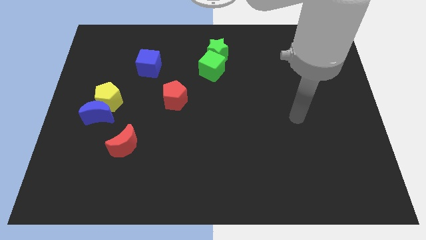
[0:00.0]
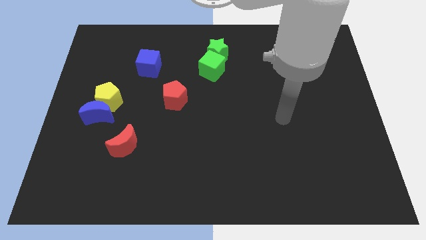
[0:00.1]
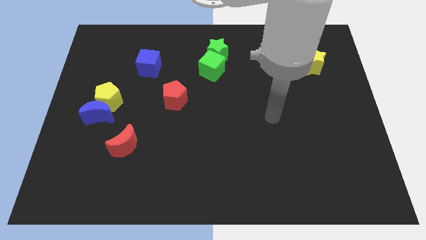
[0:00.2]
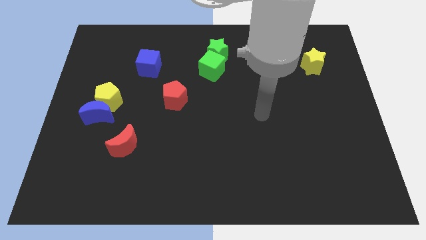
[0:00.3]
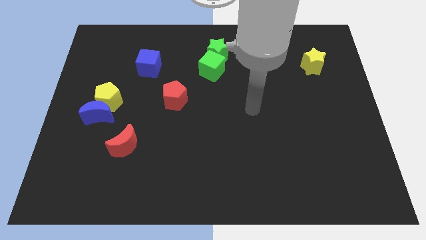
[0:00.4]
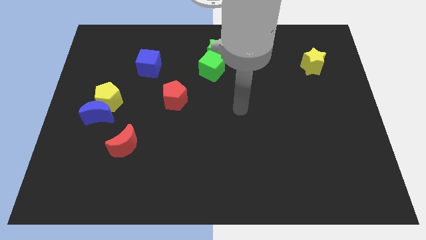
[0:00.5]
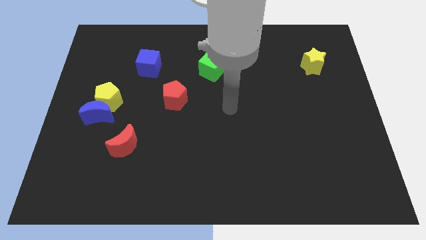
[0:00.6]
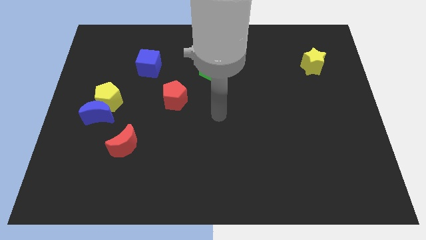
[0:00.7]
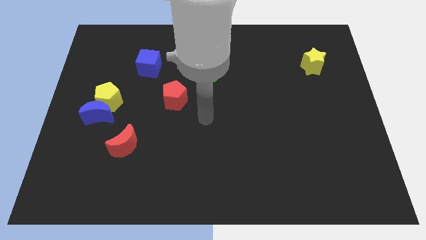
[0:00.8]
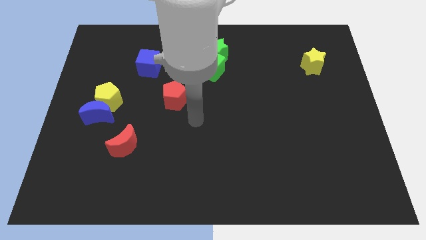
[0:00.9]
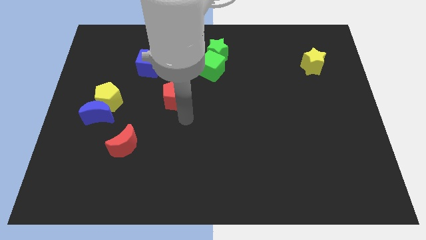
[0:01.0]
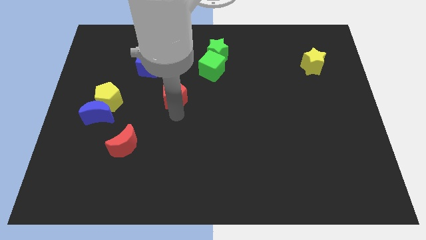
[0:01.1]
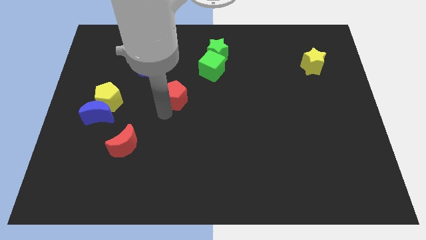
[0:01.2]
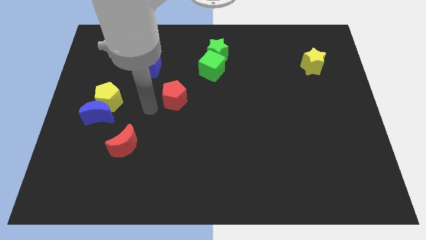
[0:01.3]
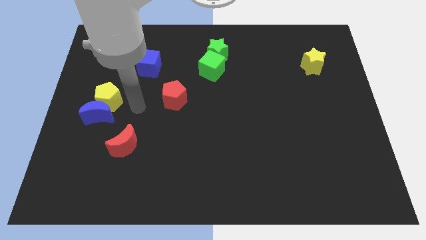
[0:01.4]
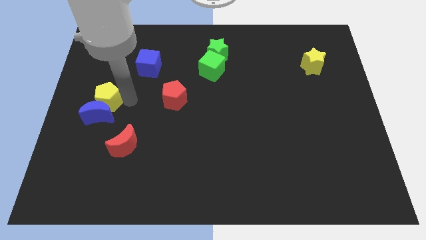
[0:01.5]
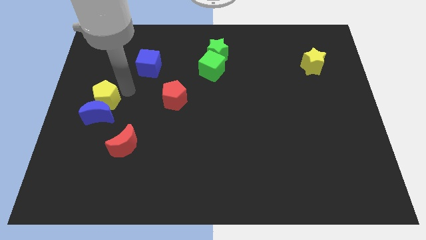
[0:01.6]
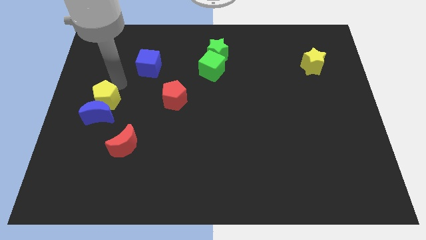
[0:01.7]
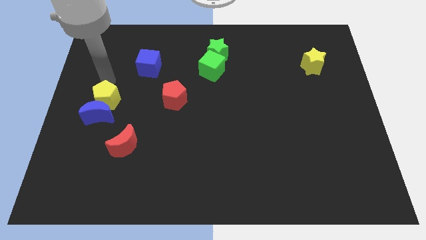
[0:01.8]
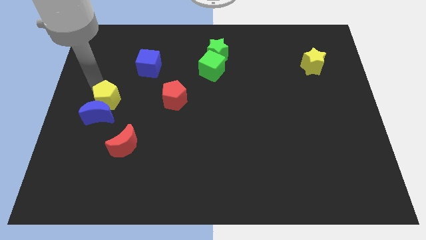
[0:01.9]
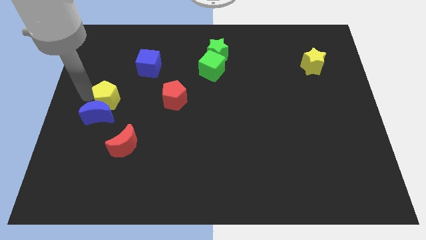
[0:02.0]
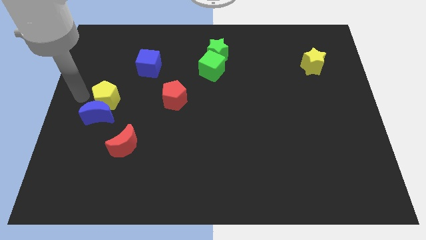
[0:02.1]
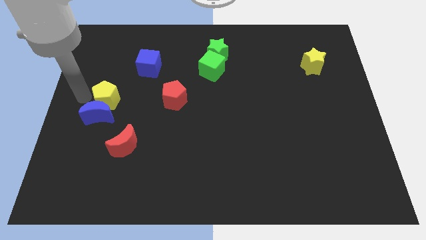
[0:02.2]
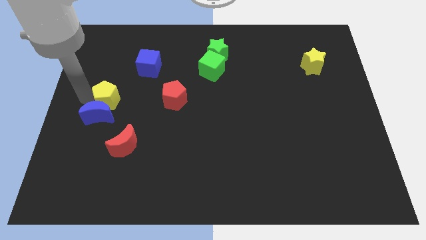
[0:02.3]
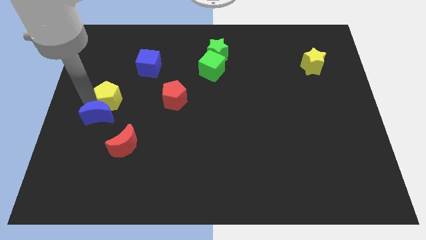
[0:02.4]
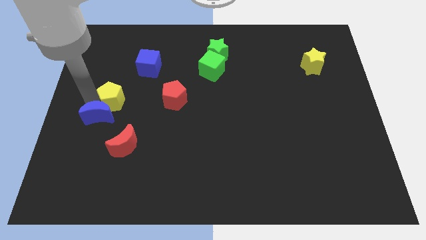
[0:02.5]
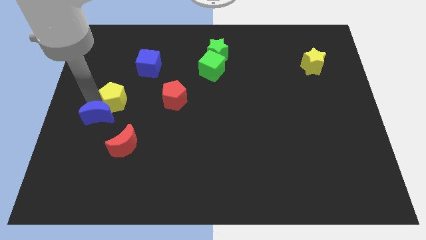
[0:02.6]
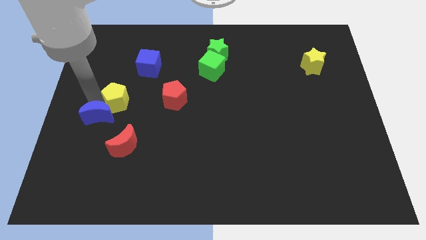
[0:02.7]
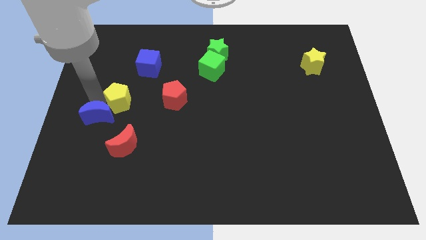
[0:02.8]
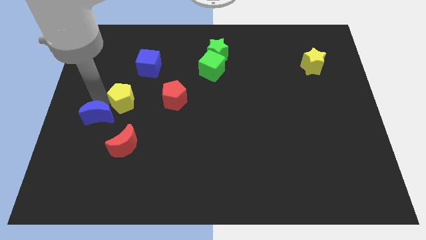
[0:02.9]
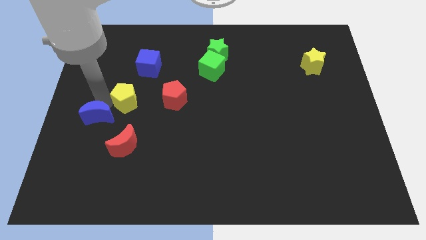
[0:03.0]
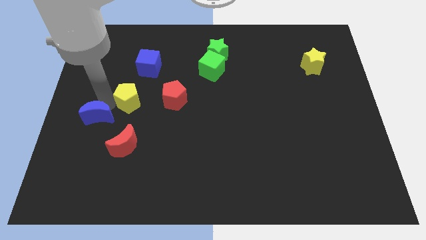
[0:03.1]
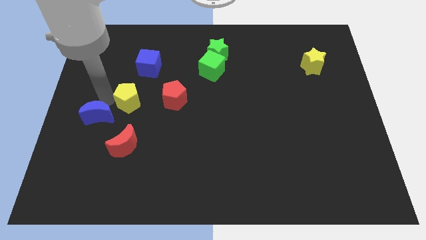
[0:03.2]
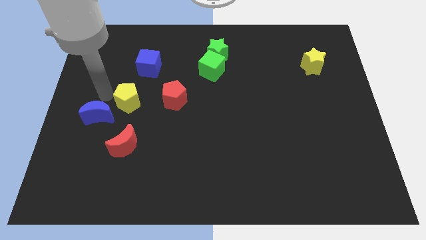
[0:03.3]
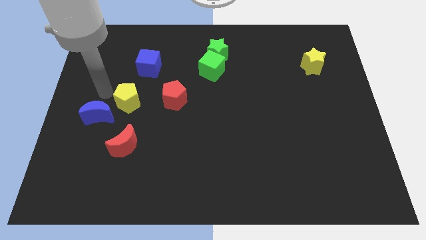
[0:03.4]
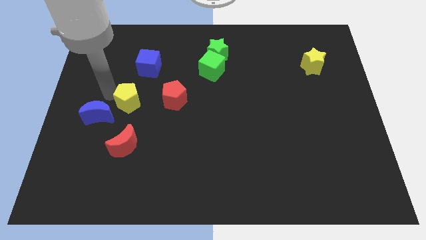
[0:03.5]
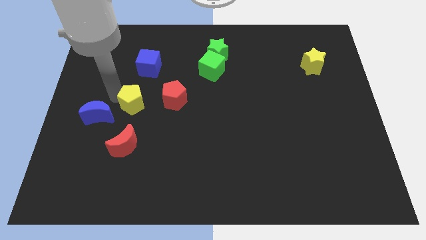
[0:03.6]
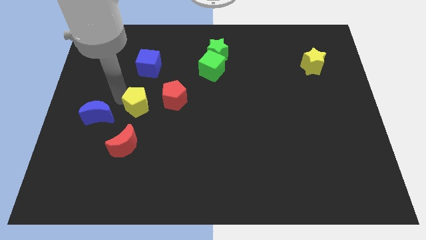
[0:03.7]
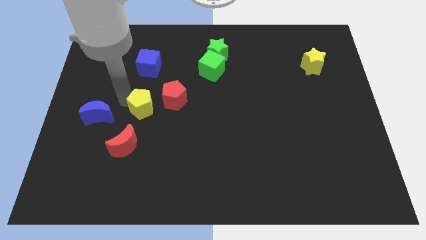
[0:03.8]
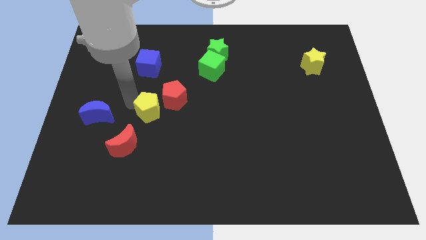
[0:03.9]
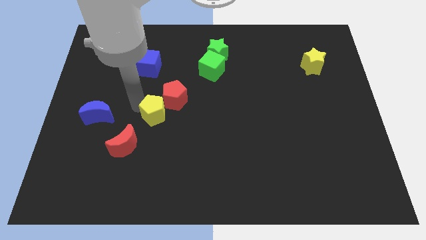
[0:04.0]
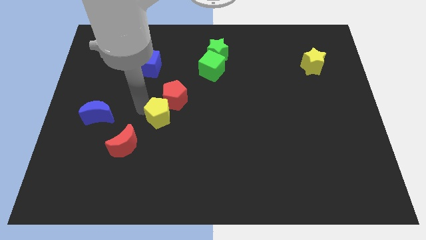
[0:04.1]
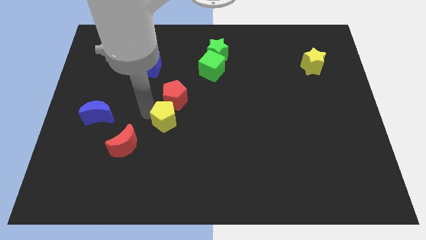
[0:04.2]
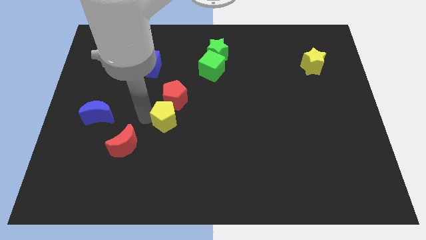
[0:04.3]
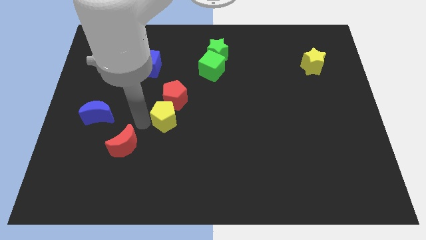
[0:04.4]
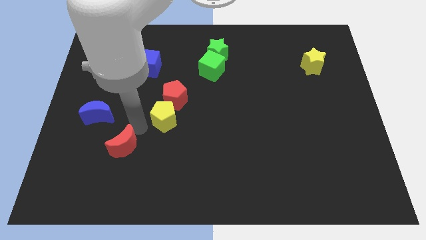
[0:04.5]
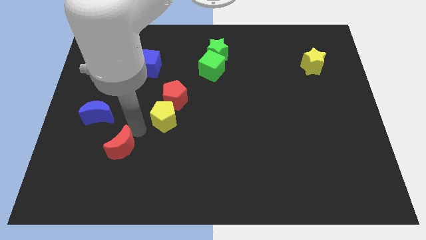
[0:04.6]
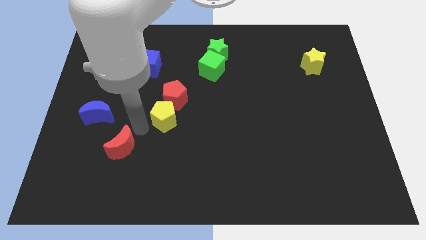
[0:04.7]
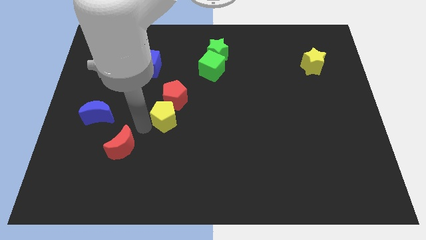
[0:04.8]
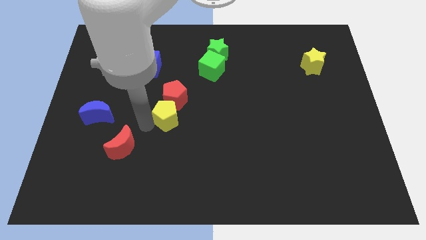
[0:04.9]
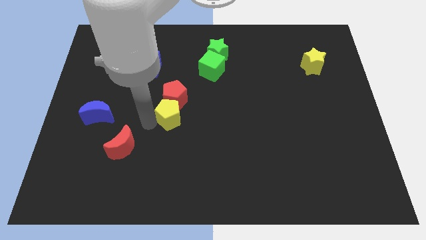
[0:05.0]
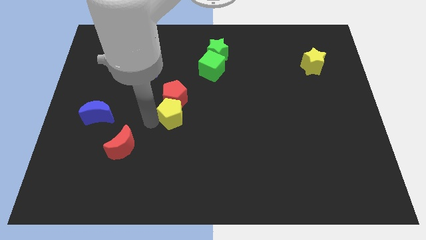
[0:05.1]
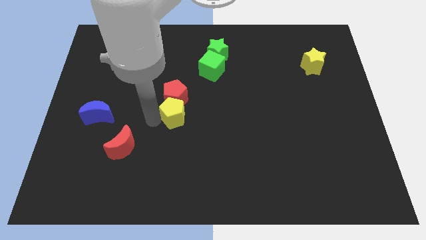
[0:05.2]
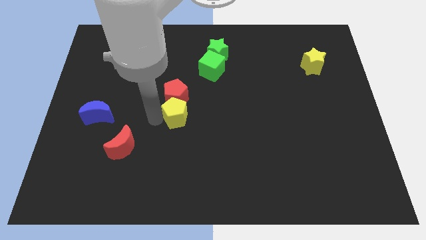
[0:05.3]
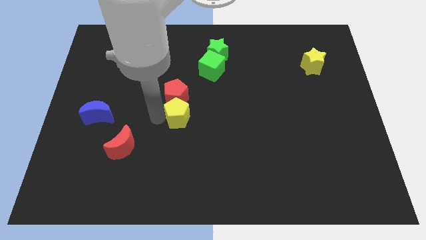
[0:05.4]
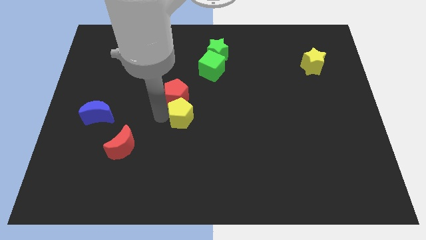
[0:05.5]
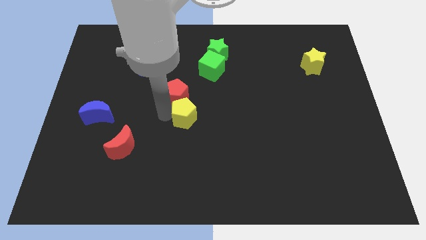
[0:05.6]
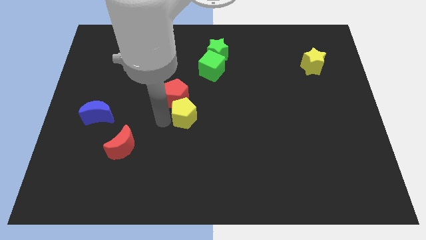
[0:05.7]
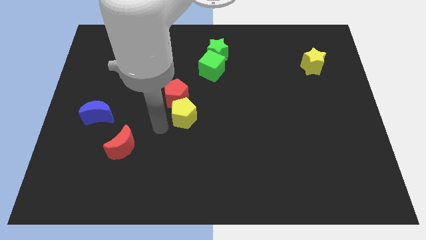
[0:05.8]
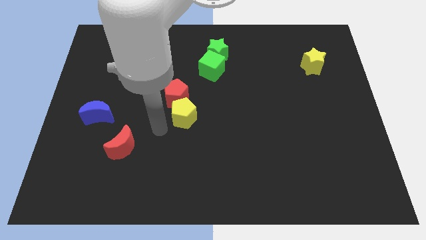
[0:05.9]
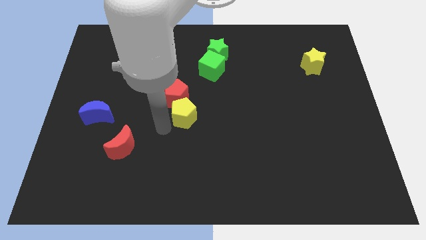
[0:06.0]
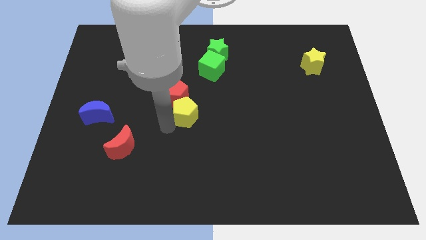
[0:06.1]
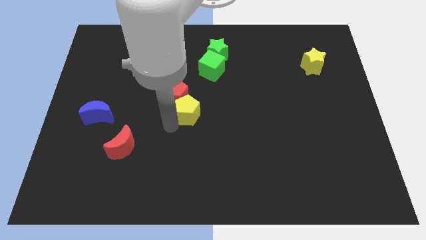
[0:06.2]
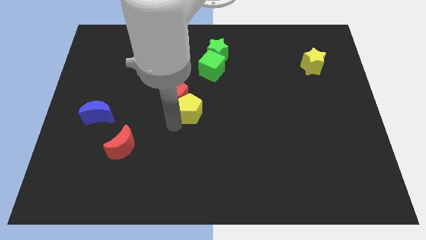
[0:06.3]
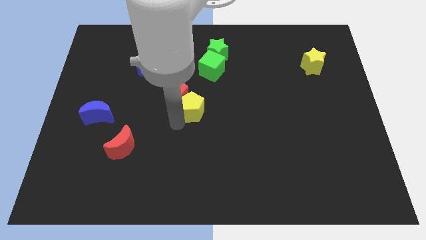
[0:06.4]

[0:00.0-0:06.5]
push the yellow pentagon below the green cube
